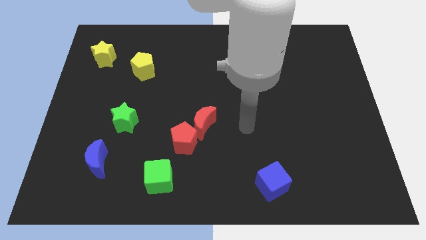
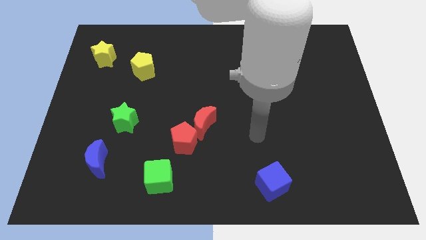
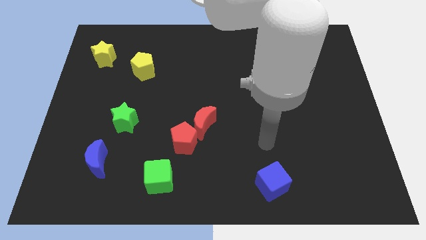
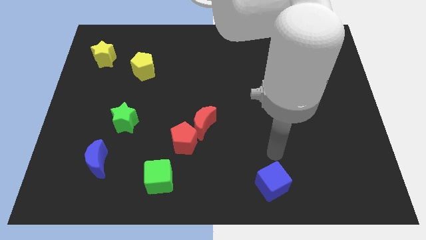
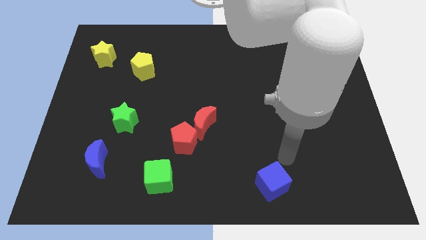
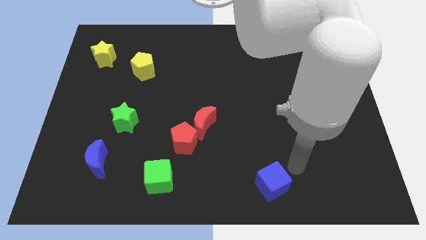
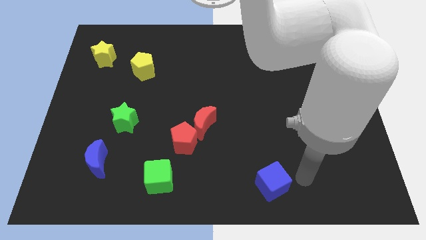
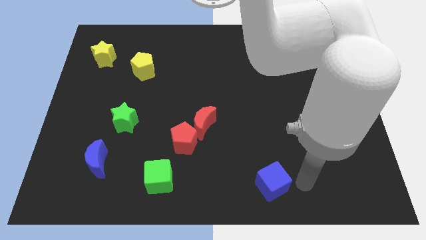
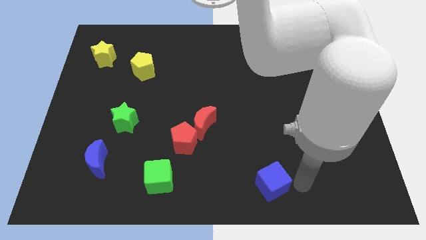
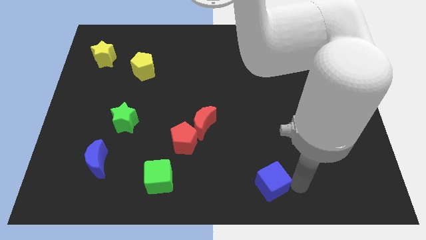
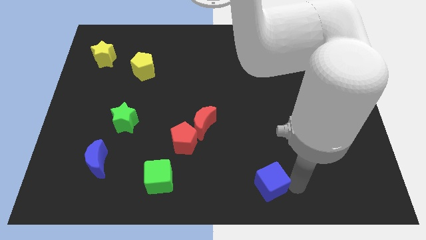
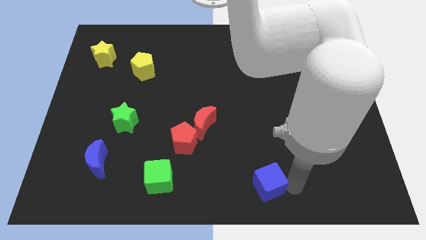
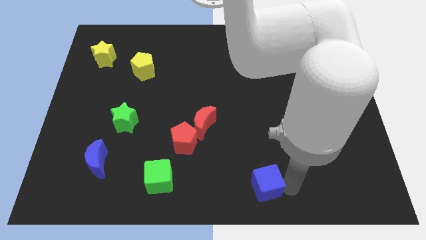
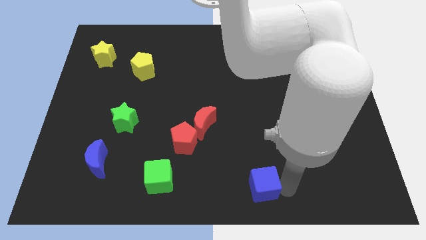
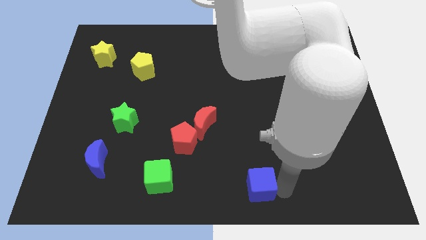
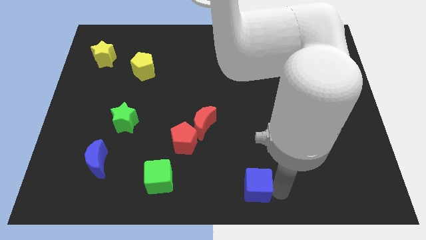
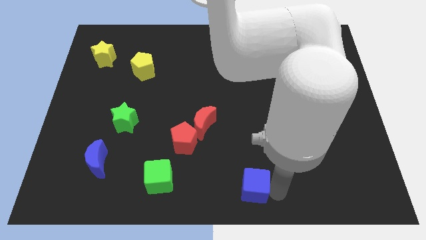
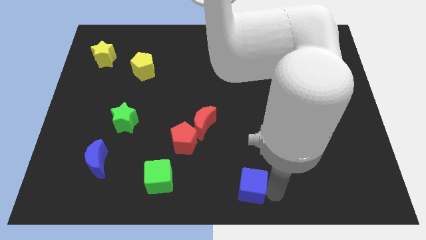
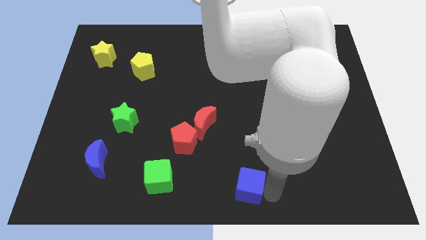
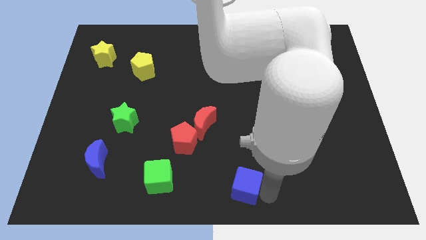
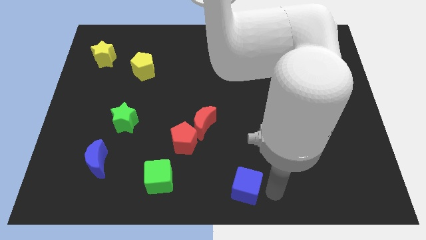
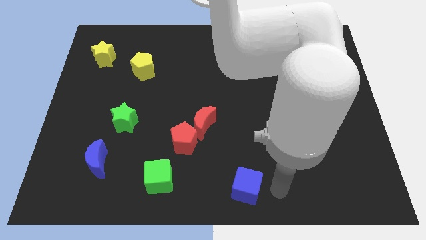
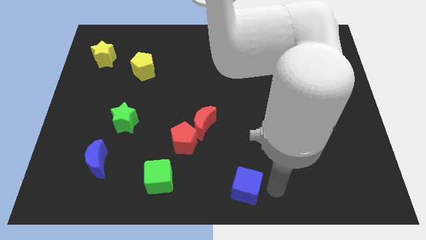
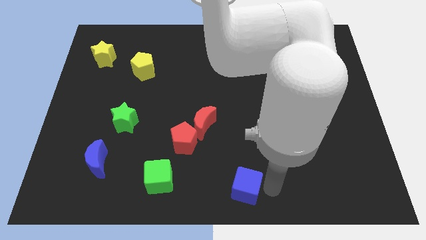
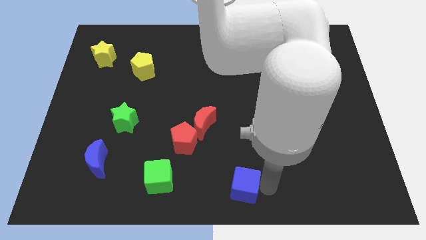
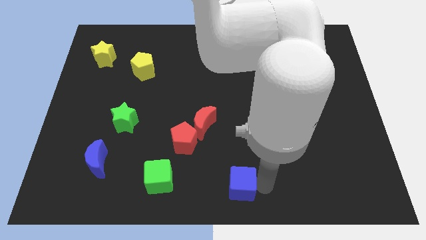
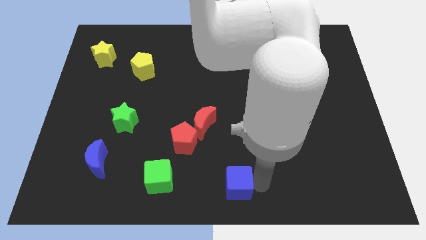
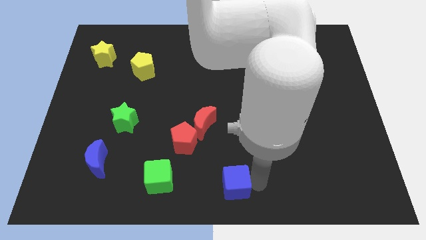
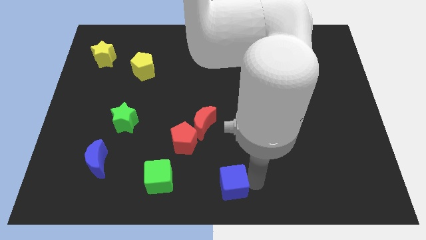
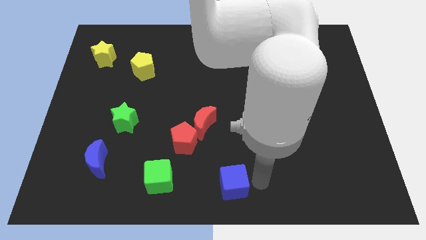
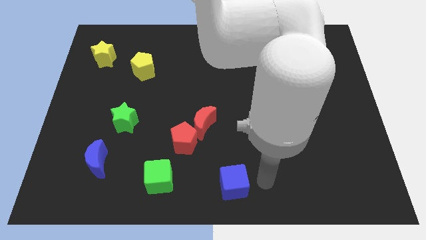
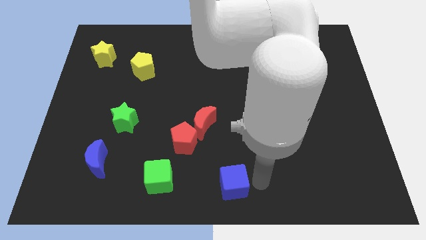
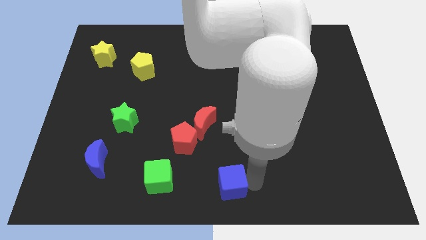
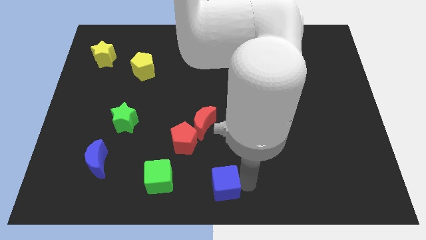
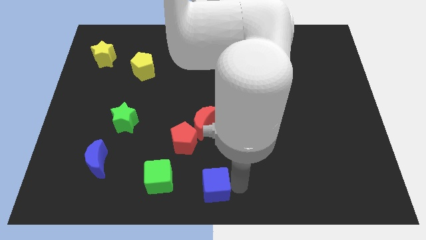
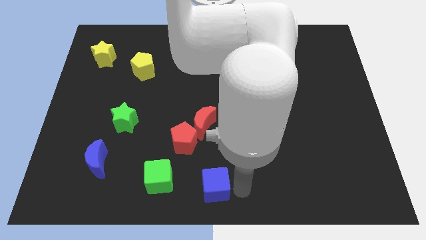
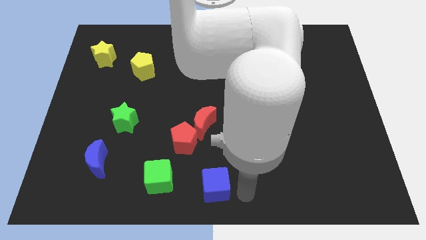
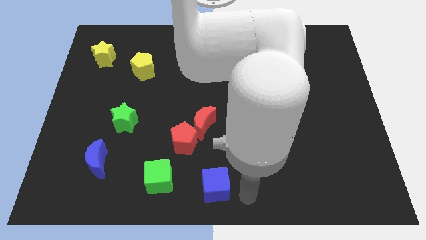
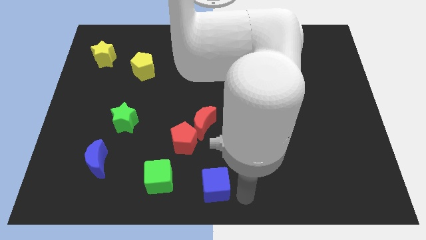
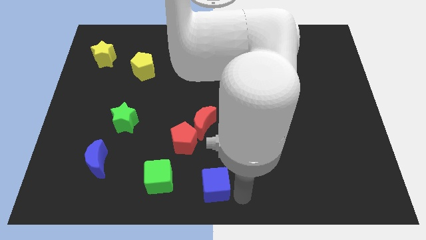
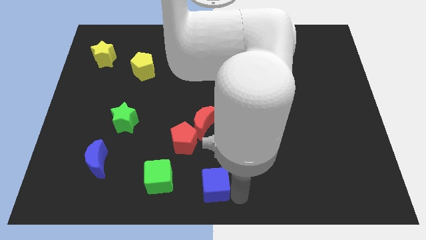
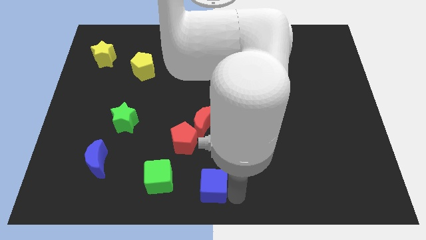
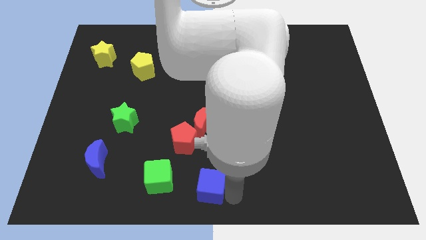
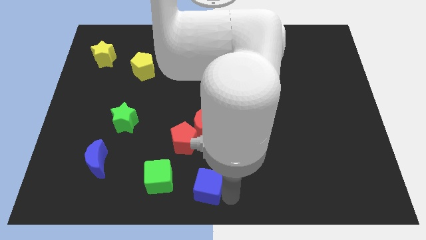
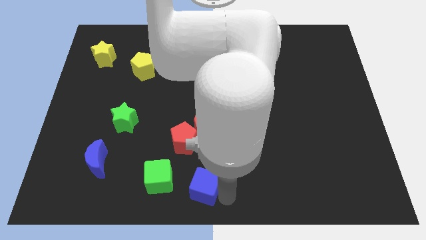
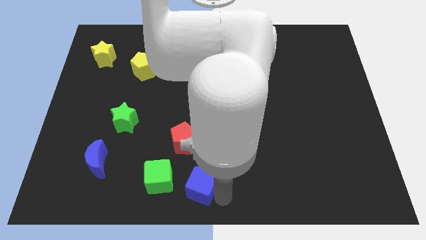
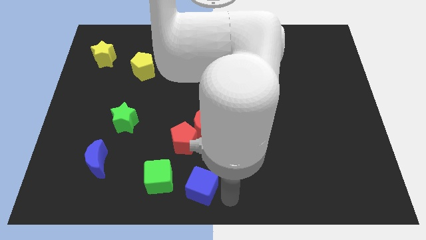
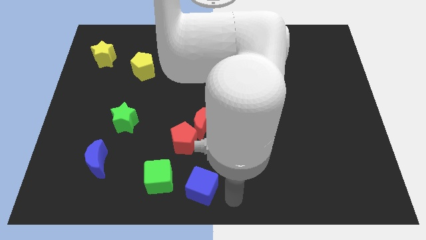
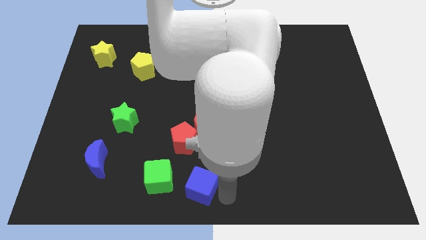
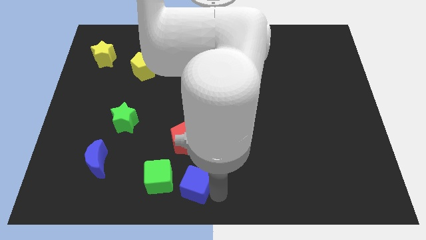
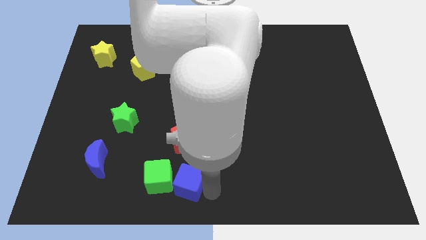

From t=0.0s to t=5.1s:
push the blue cube next to the green cube

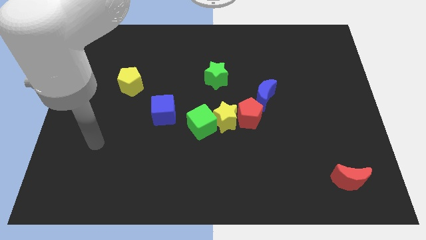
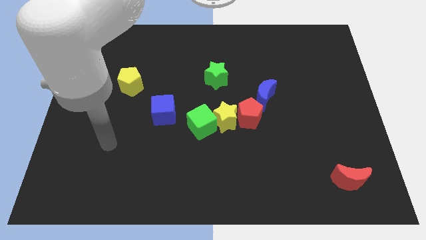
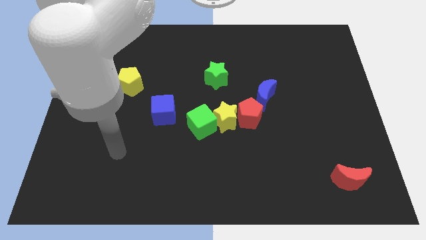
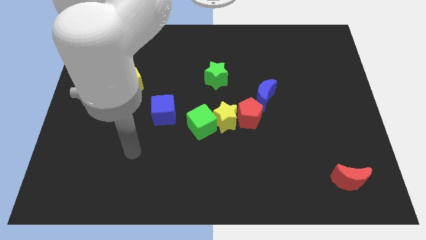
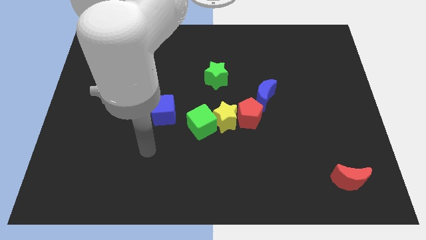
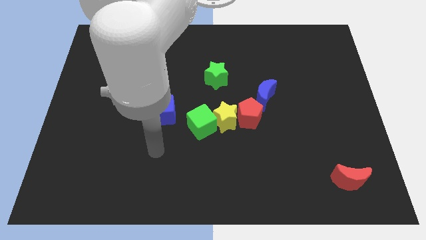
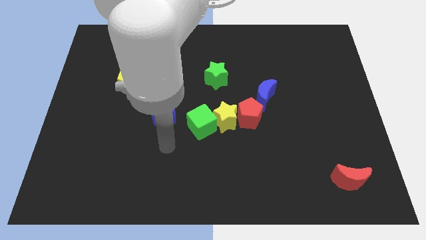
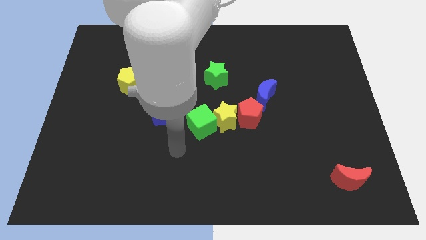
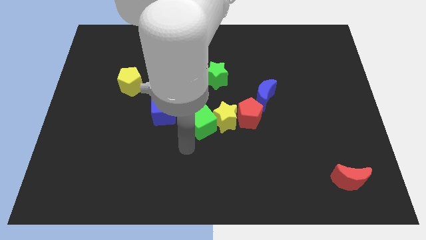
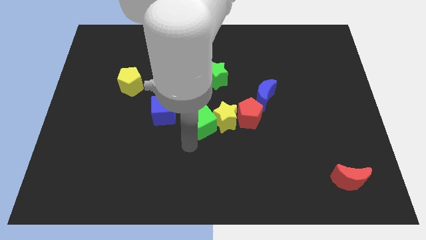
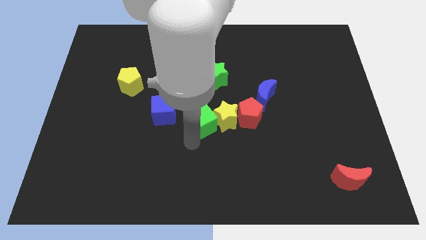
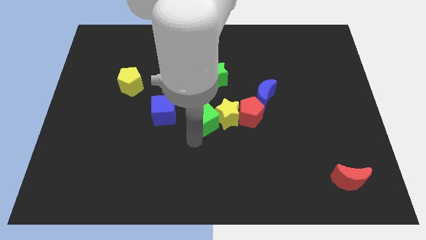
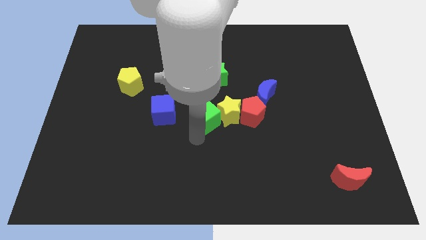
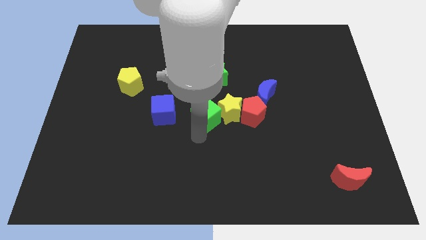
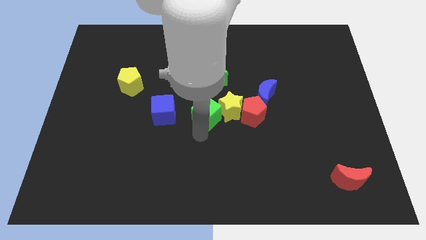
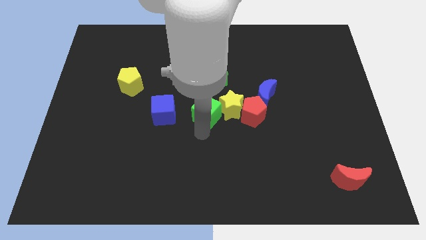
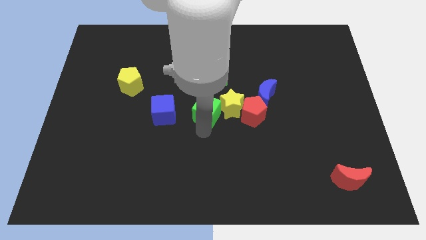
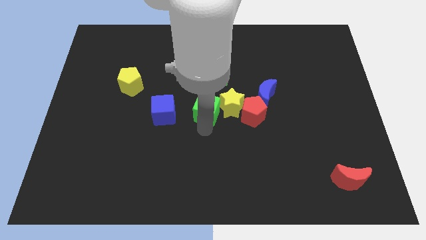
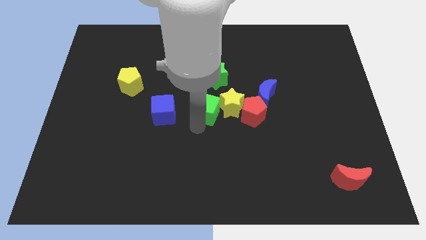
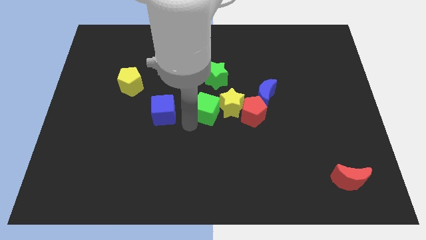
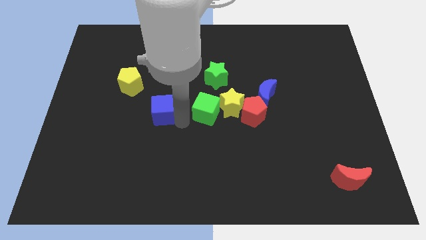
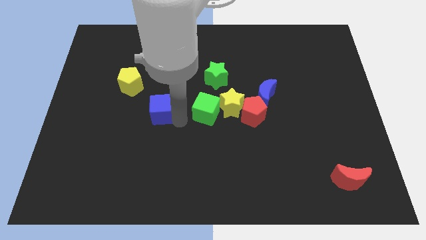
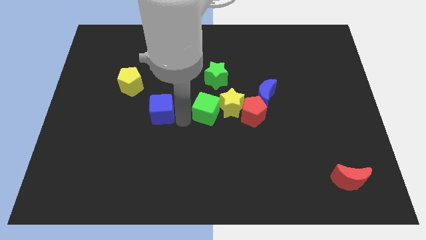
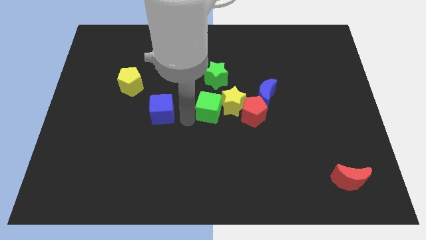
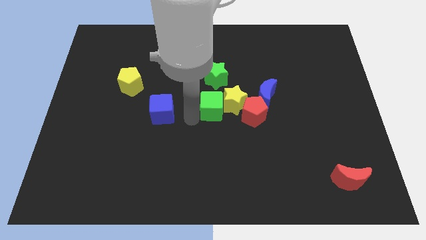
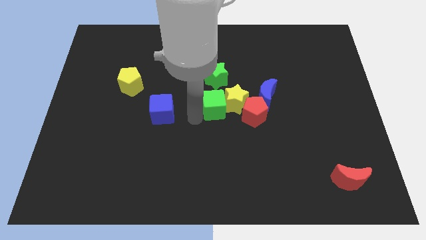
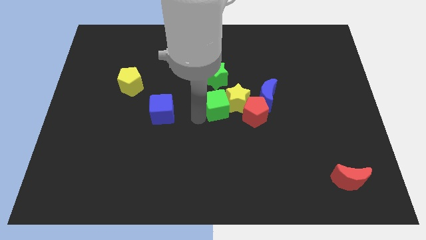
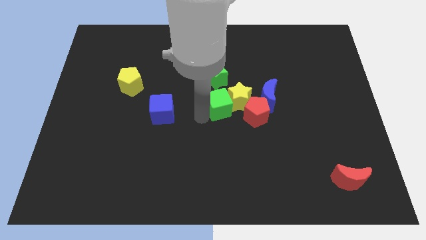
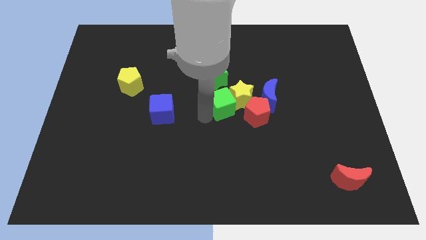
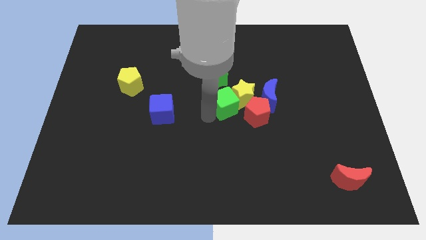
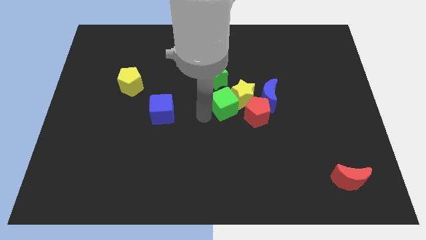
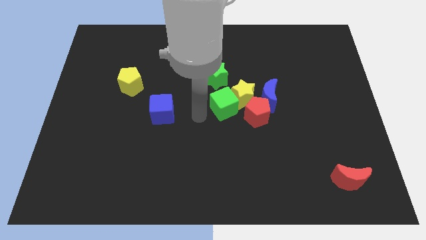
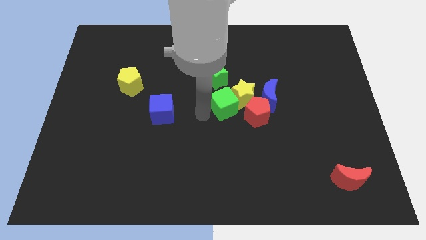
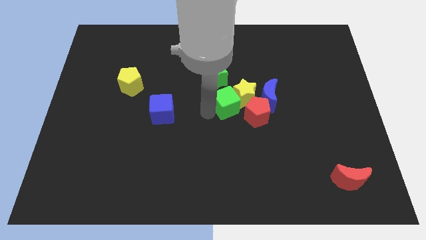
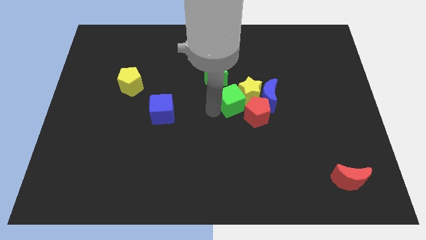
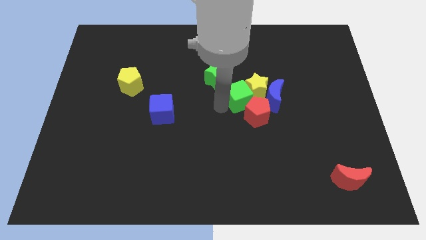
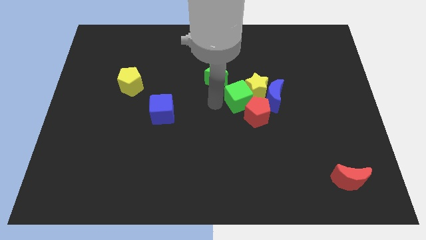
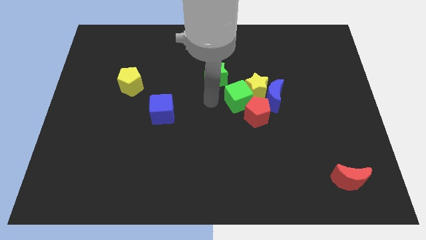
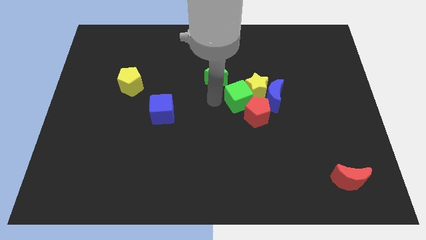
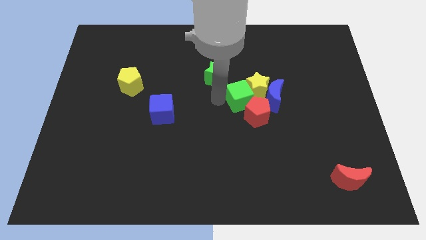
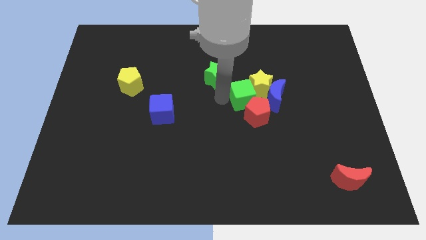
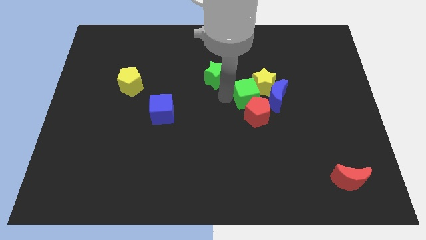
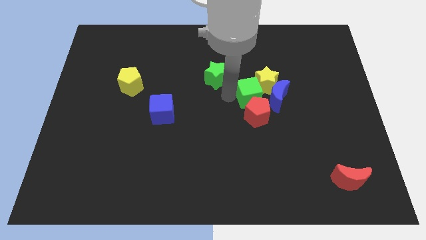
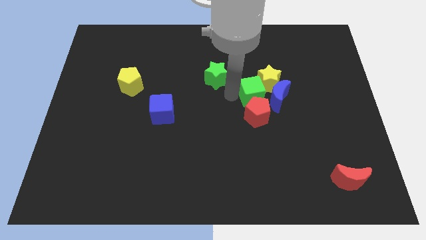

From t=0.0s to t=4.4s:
put the green cube towards the blue moon
